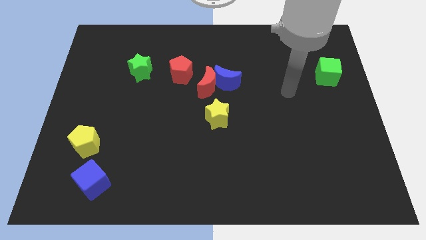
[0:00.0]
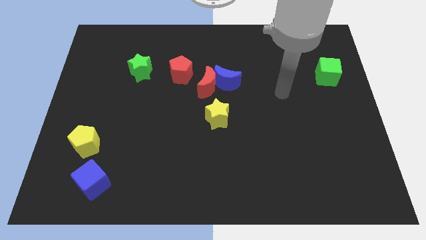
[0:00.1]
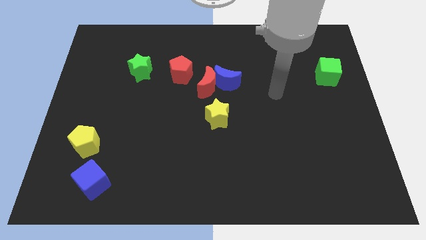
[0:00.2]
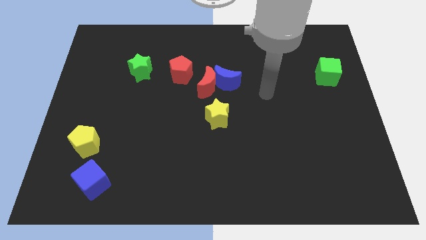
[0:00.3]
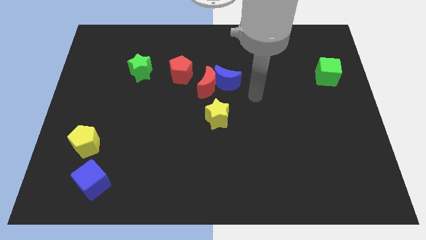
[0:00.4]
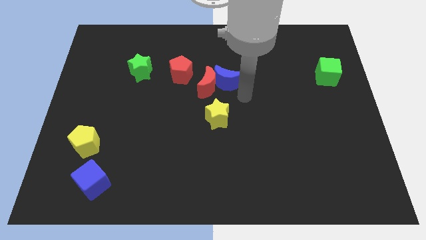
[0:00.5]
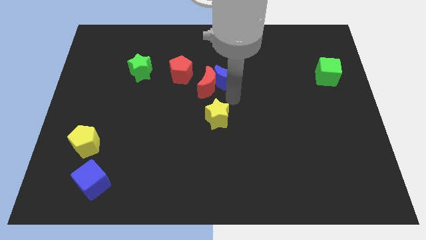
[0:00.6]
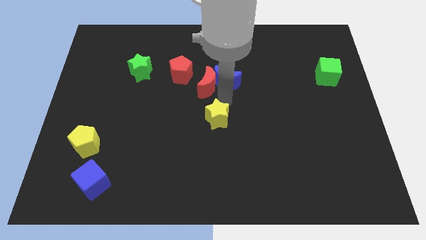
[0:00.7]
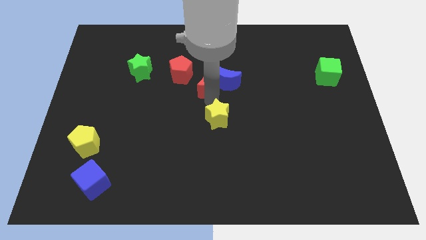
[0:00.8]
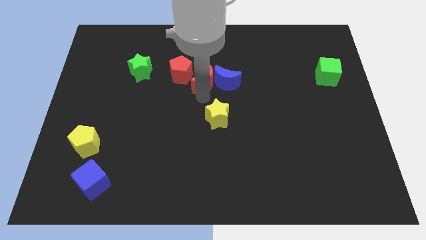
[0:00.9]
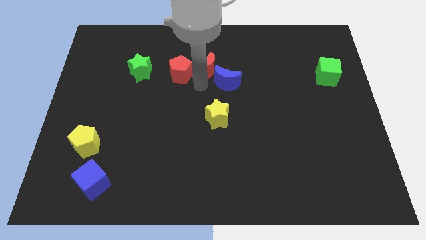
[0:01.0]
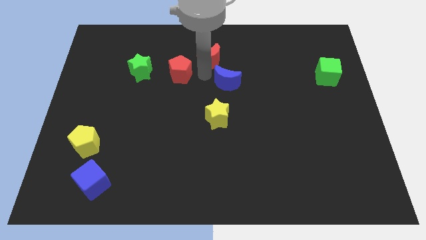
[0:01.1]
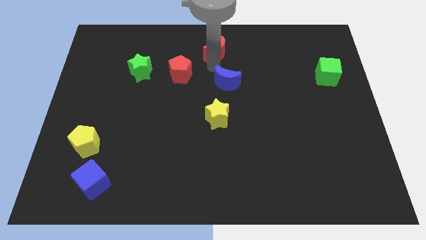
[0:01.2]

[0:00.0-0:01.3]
pull the blue moon apart from the red moon

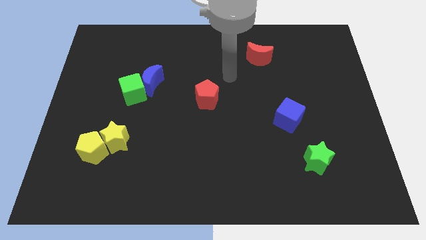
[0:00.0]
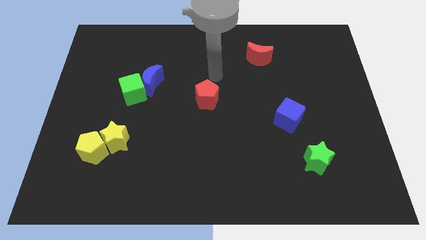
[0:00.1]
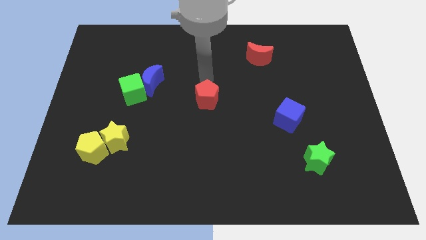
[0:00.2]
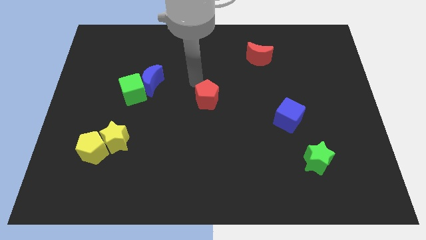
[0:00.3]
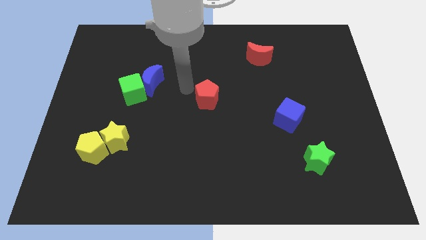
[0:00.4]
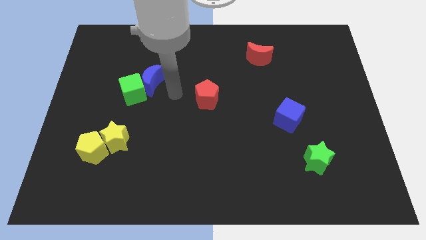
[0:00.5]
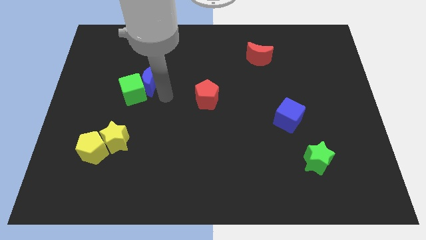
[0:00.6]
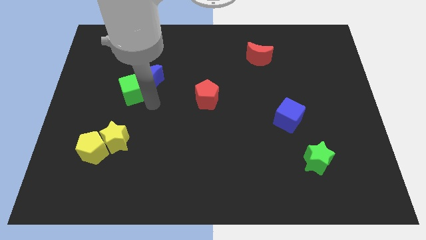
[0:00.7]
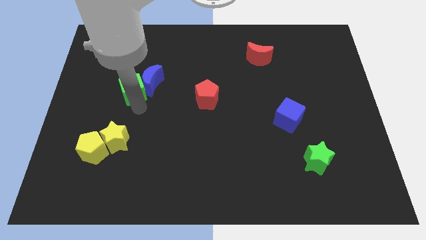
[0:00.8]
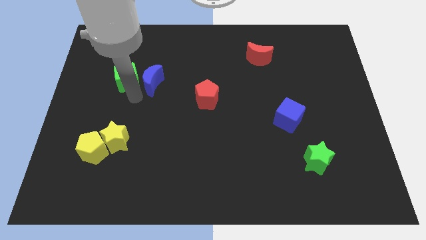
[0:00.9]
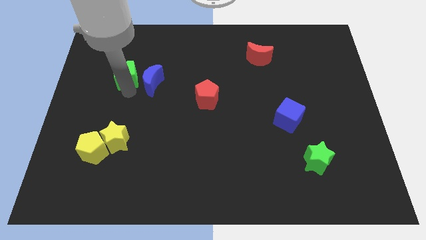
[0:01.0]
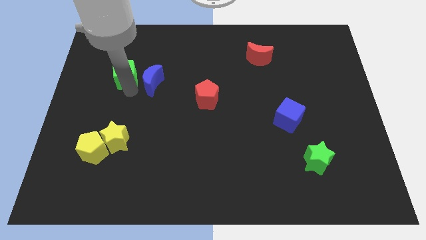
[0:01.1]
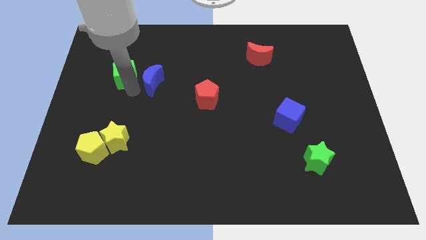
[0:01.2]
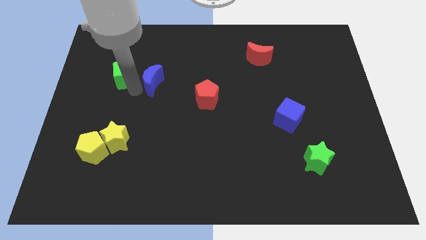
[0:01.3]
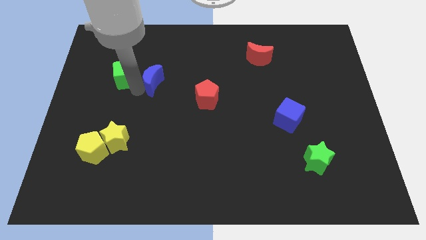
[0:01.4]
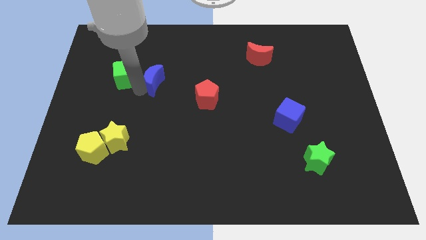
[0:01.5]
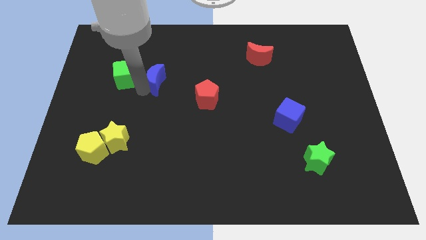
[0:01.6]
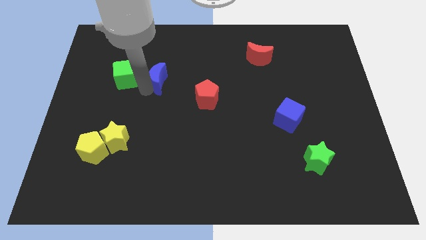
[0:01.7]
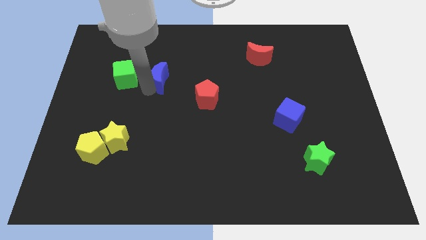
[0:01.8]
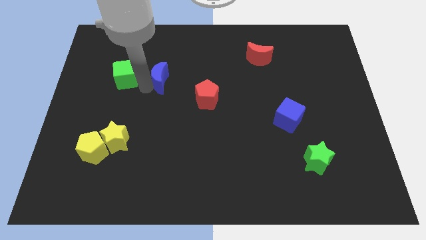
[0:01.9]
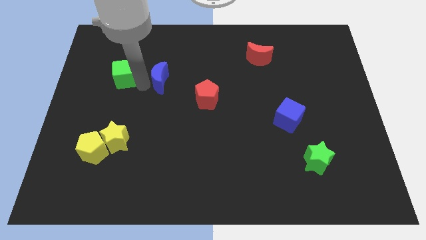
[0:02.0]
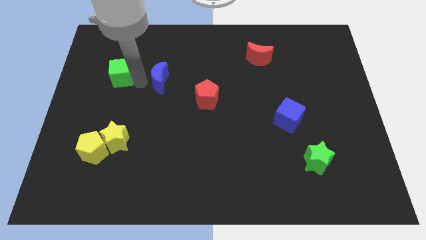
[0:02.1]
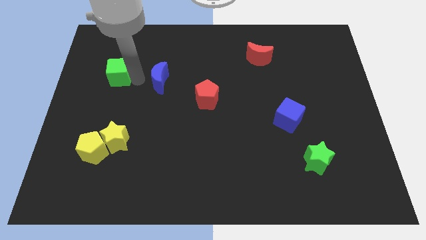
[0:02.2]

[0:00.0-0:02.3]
move the blue moon away from the green cube

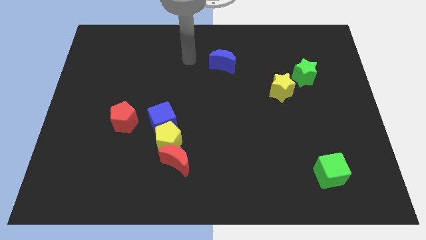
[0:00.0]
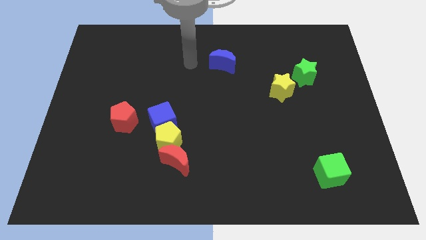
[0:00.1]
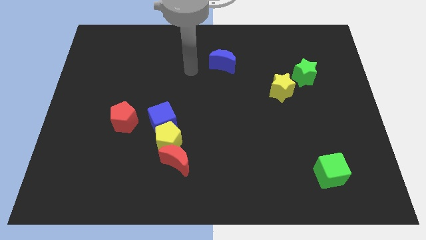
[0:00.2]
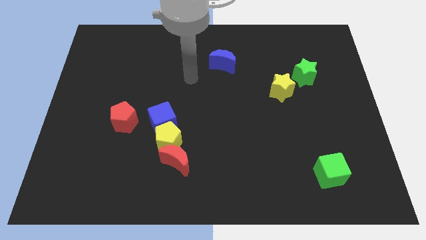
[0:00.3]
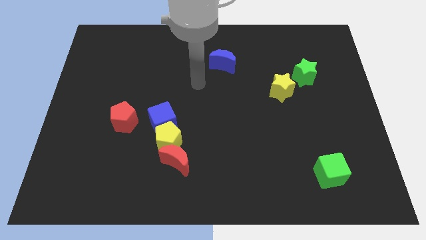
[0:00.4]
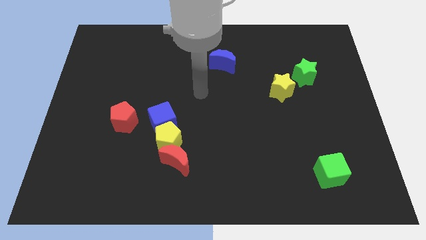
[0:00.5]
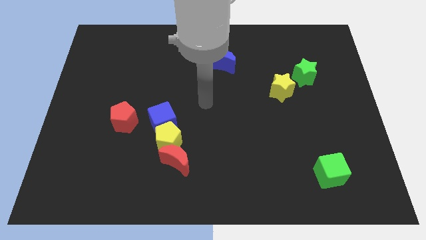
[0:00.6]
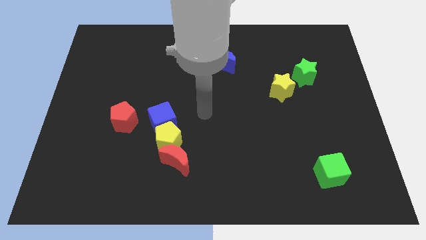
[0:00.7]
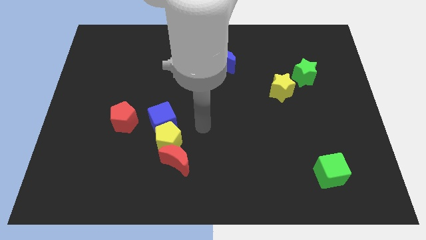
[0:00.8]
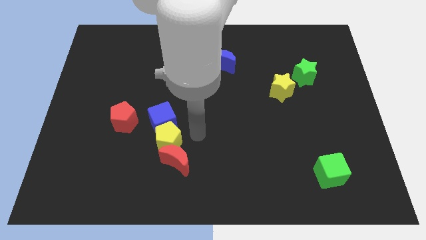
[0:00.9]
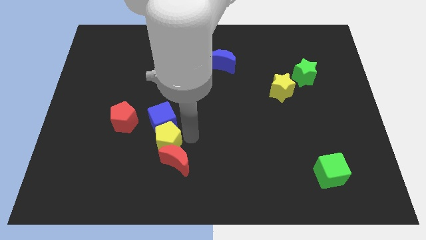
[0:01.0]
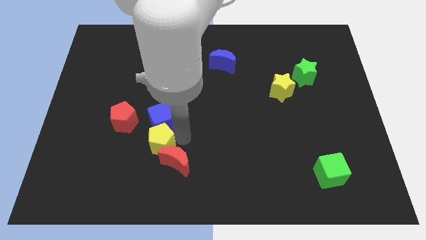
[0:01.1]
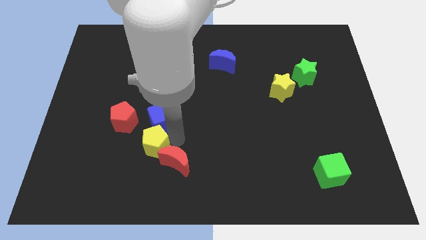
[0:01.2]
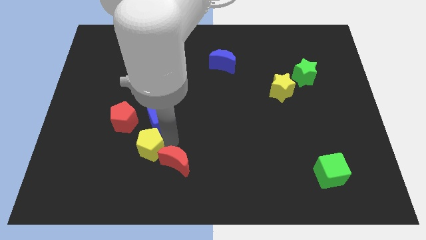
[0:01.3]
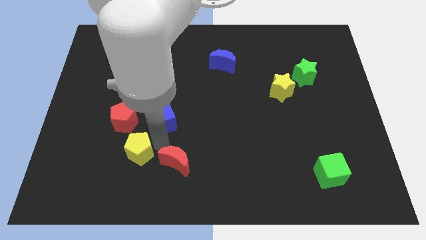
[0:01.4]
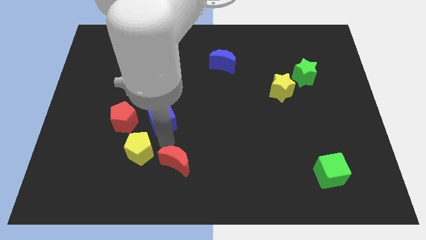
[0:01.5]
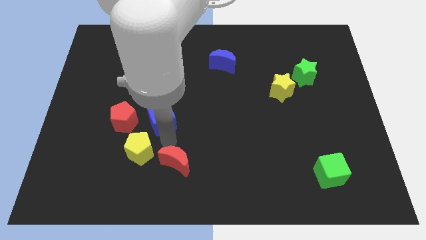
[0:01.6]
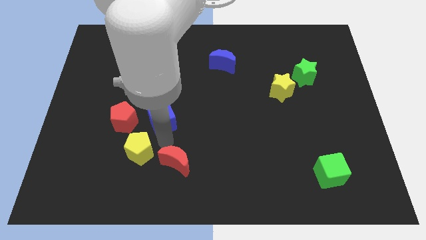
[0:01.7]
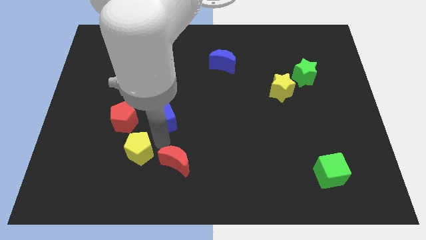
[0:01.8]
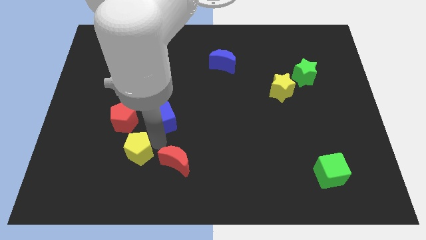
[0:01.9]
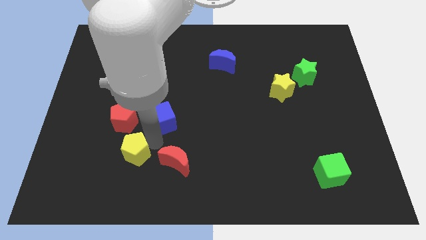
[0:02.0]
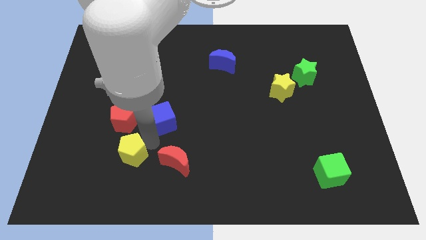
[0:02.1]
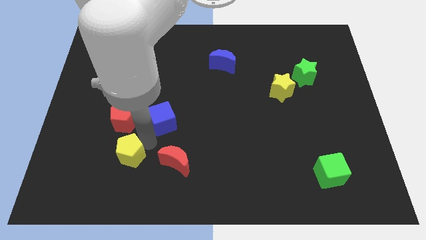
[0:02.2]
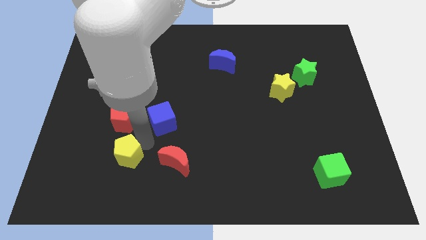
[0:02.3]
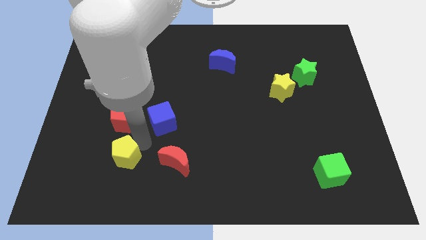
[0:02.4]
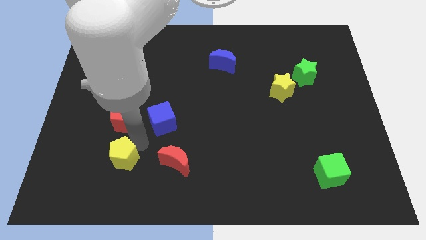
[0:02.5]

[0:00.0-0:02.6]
separate the yellow pentagon from the blue cube and red moon

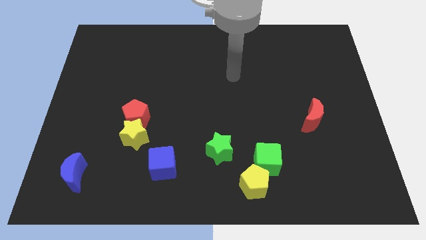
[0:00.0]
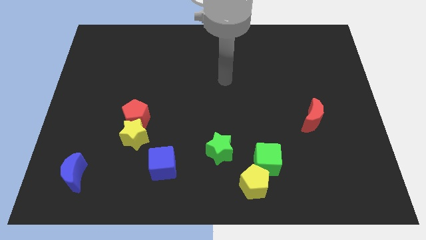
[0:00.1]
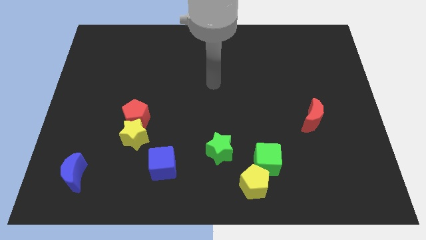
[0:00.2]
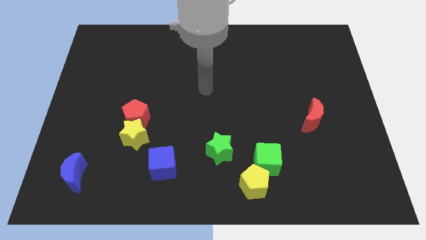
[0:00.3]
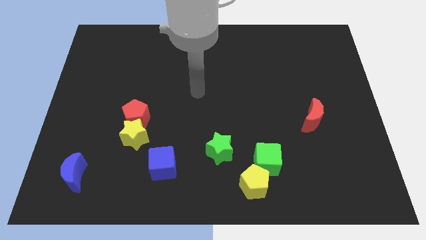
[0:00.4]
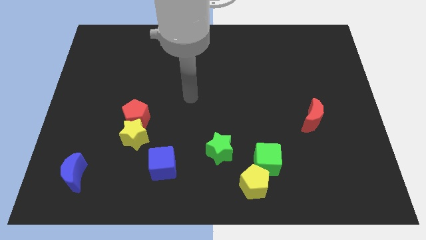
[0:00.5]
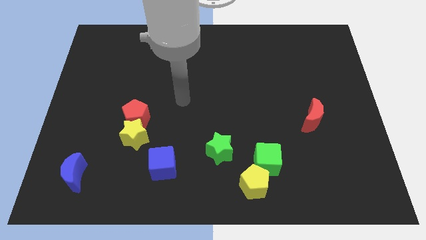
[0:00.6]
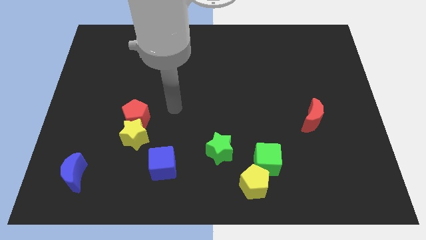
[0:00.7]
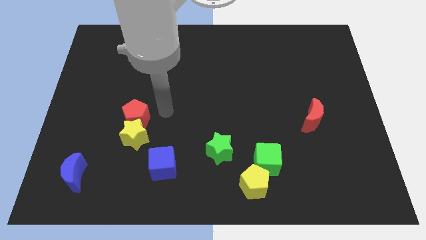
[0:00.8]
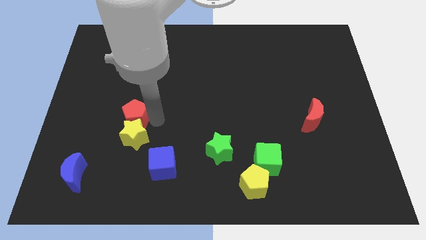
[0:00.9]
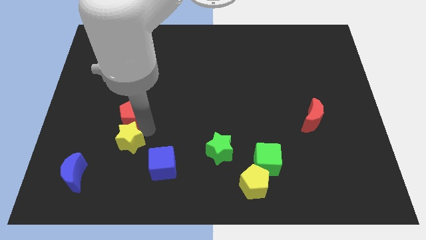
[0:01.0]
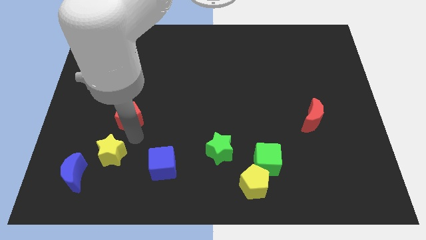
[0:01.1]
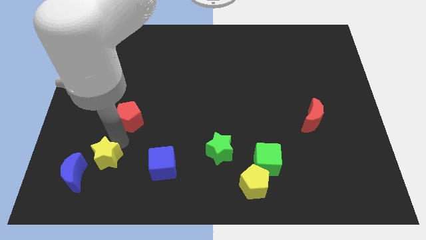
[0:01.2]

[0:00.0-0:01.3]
pull the red pentagon apart from the yellow star

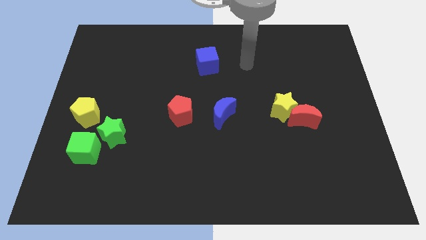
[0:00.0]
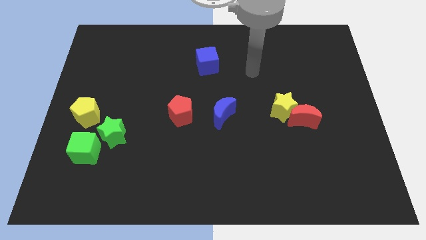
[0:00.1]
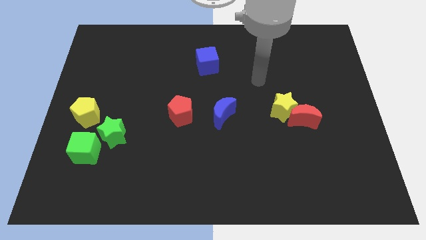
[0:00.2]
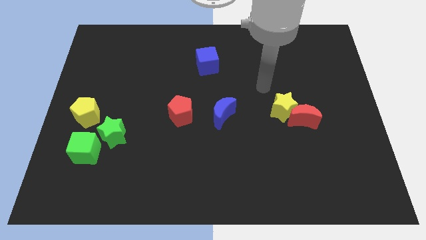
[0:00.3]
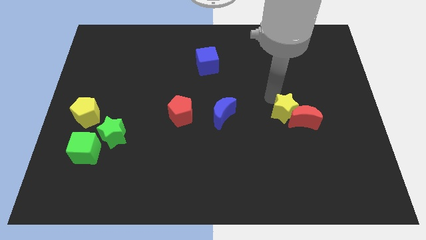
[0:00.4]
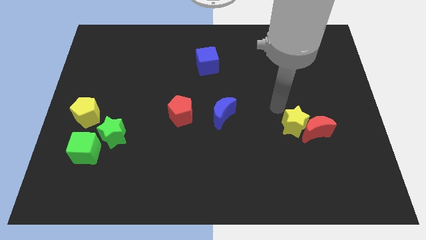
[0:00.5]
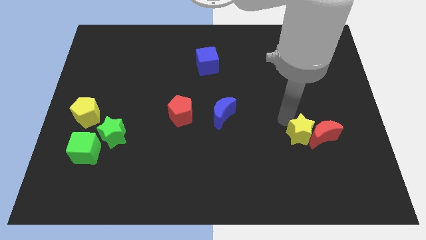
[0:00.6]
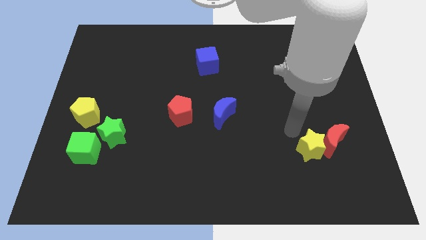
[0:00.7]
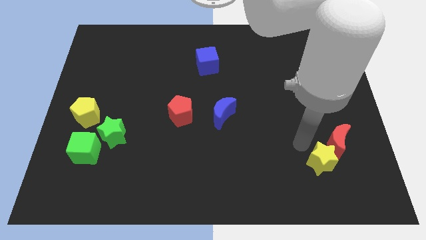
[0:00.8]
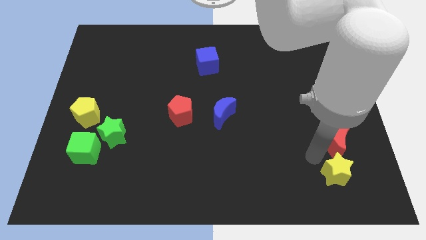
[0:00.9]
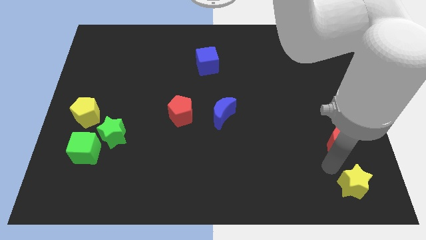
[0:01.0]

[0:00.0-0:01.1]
pull the red moon apart from the yellow star

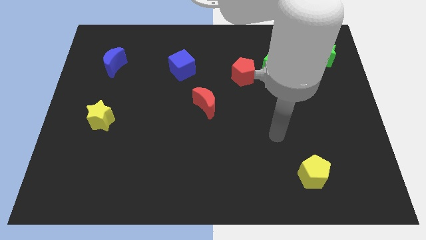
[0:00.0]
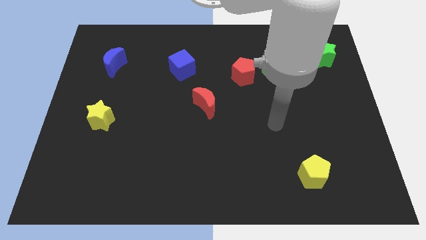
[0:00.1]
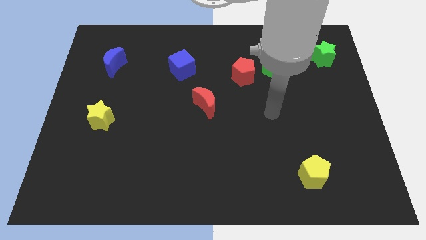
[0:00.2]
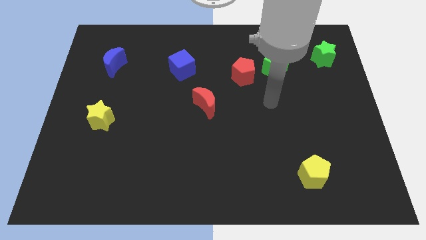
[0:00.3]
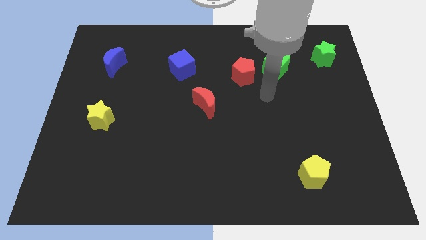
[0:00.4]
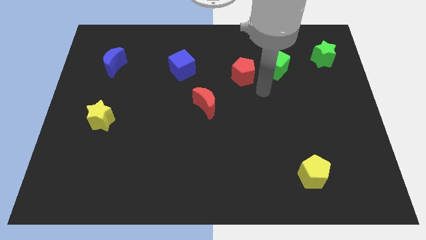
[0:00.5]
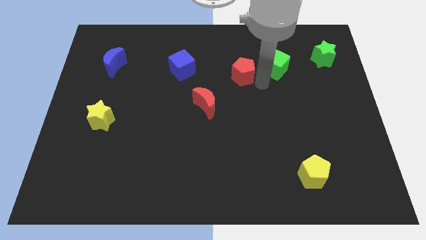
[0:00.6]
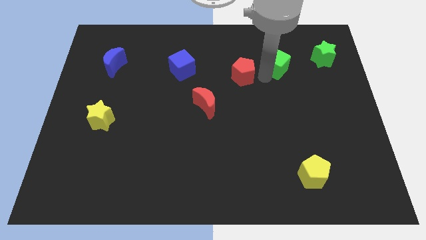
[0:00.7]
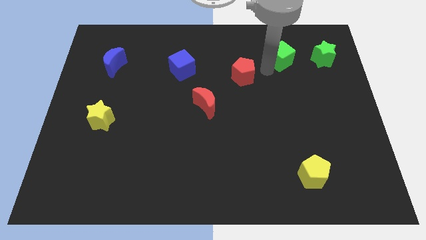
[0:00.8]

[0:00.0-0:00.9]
pull the red pentagon apart from the green cube
